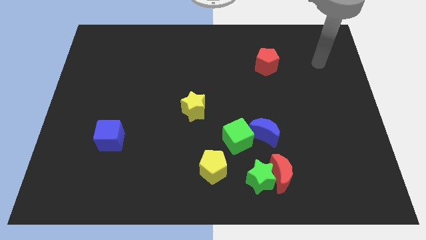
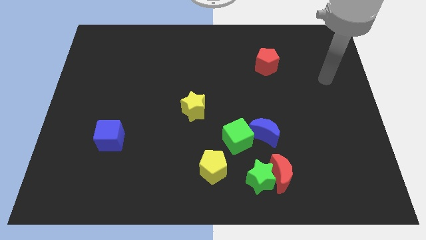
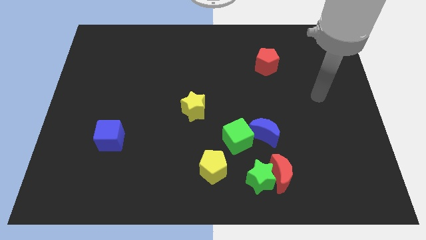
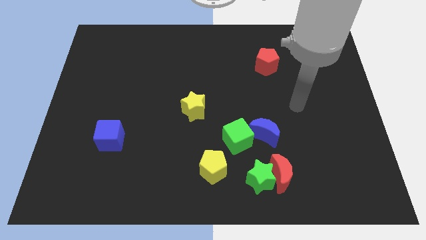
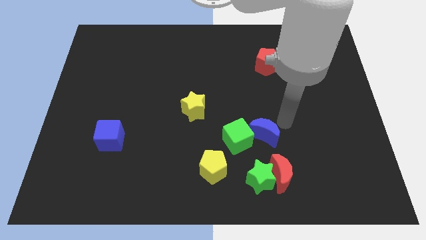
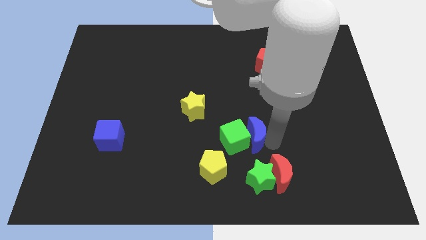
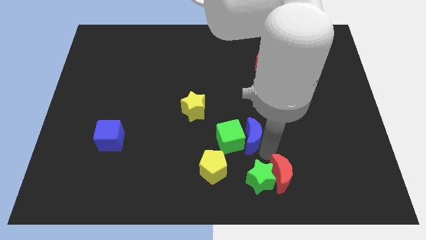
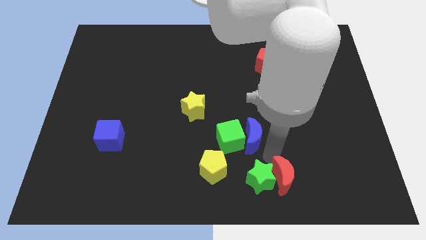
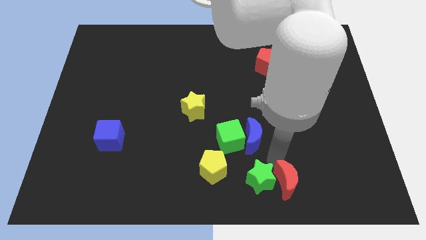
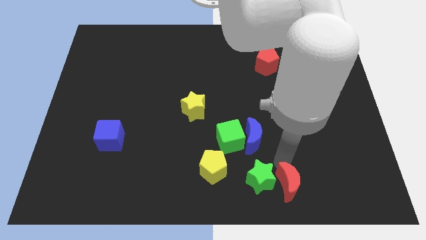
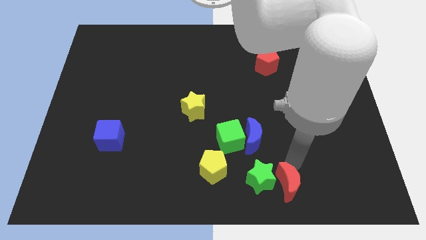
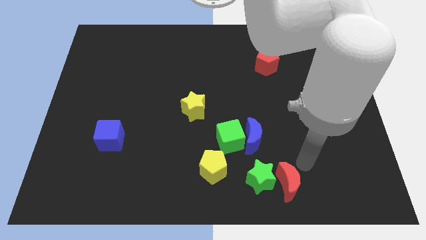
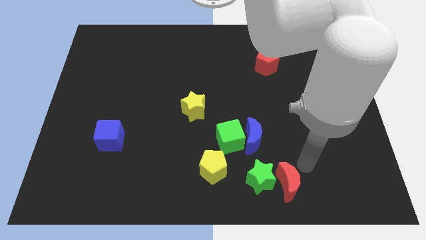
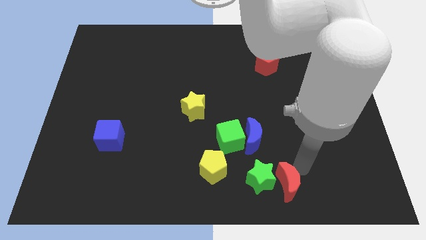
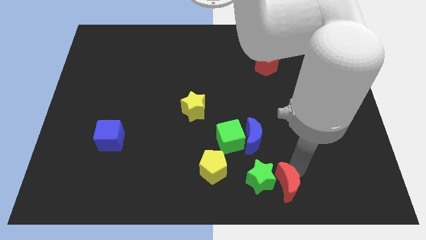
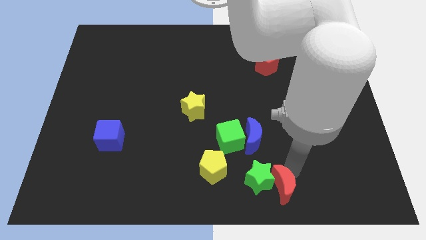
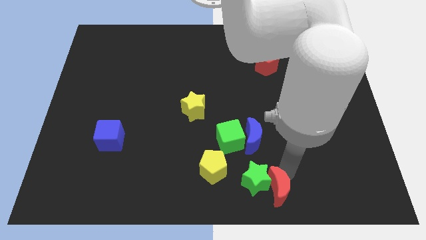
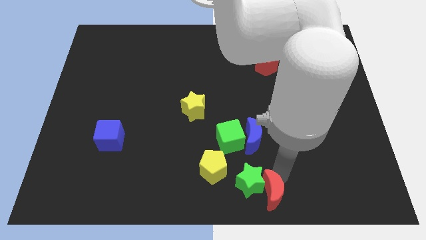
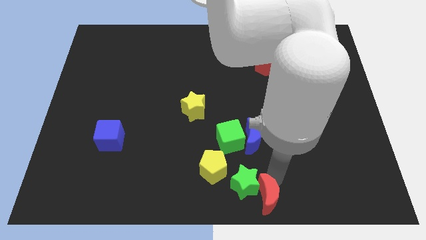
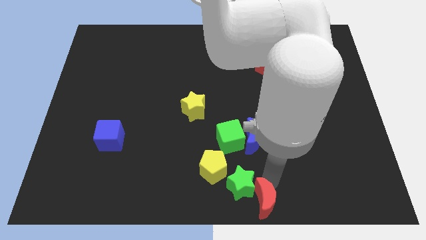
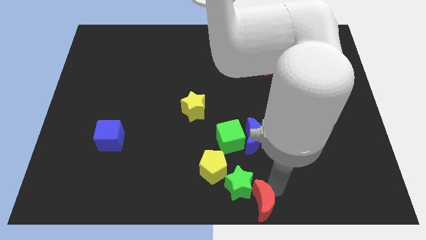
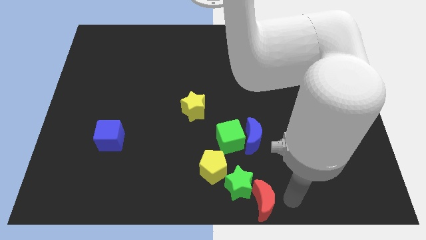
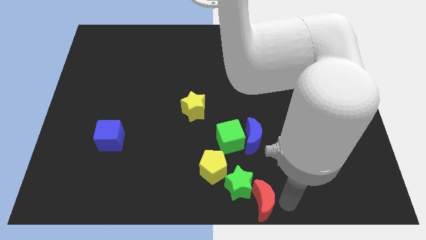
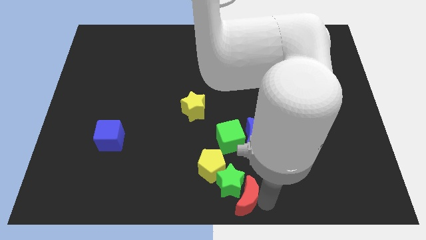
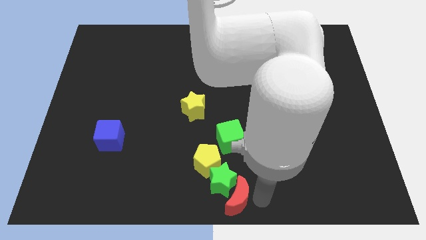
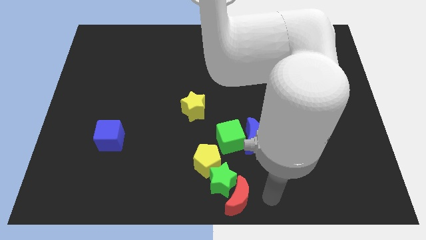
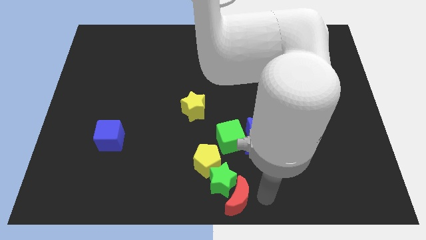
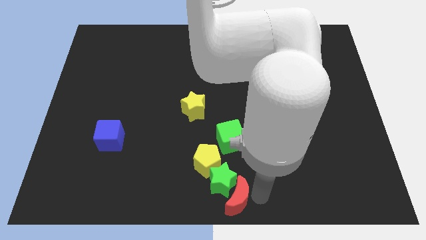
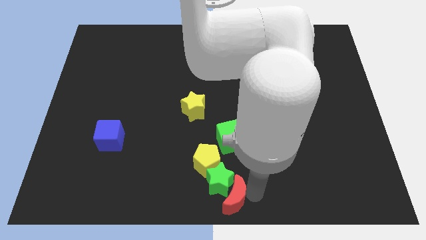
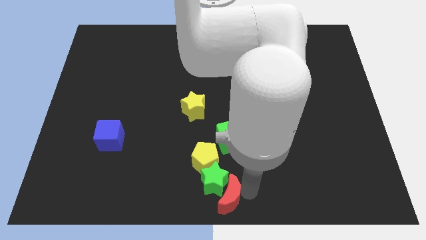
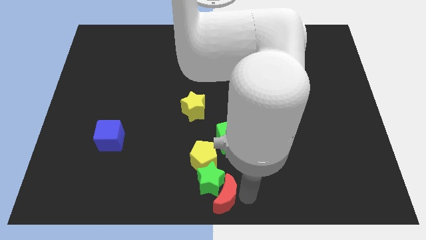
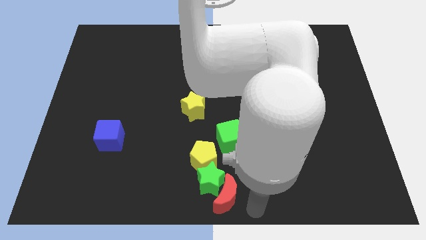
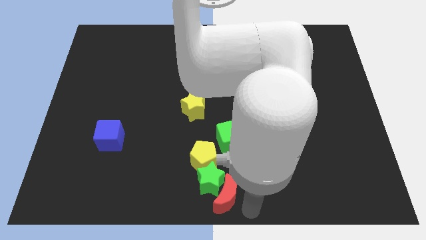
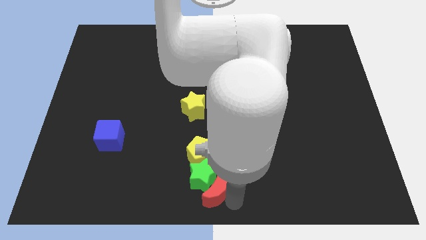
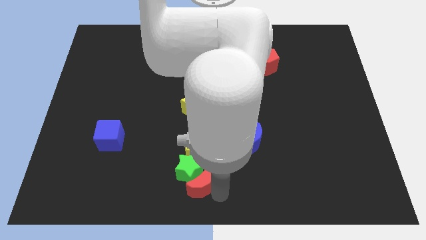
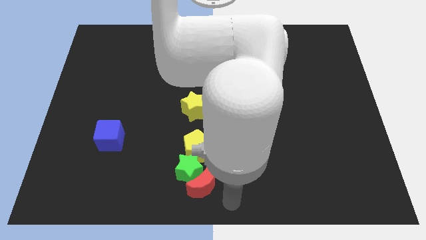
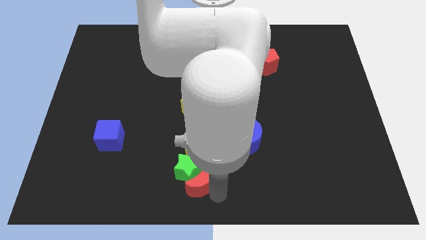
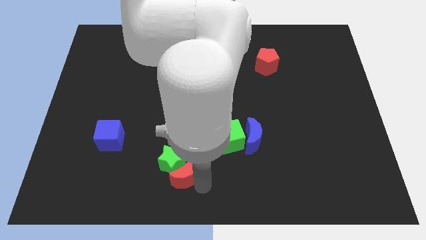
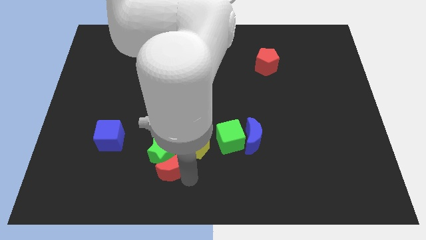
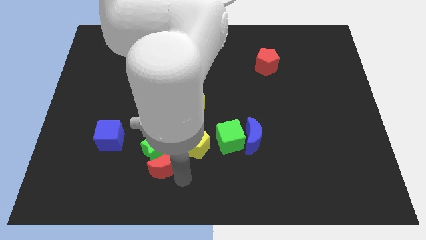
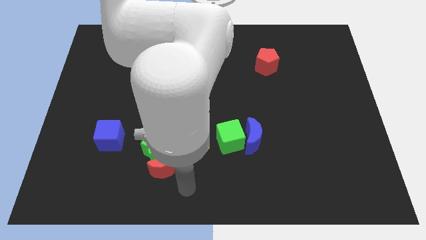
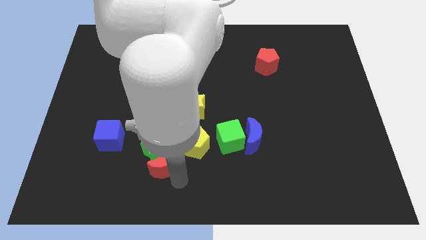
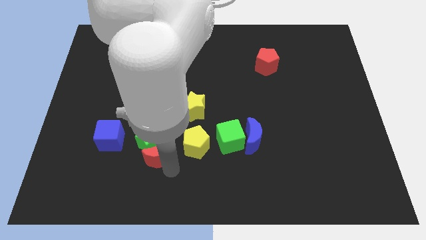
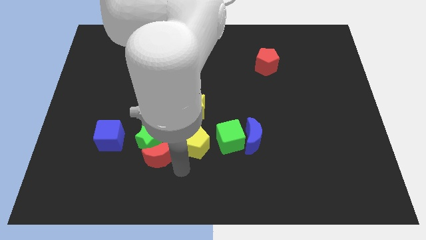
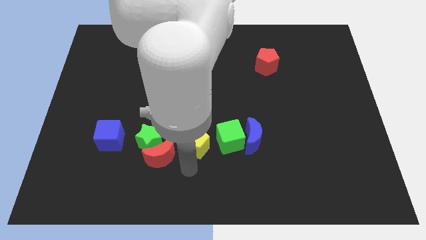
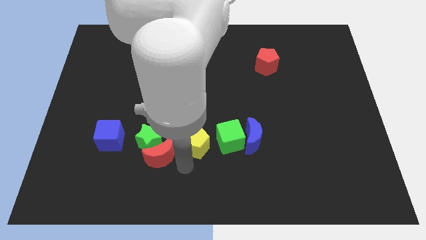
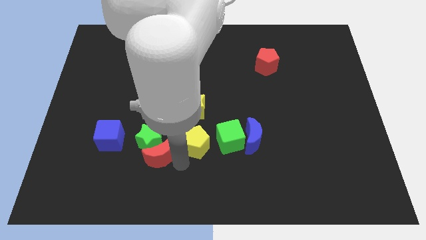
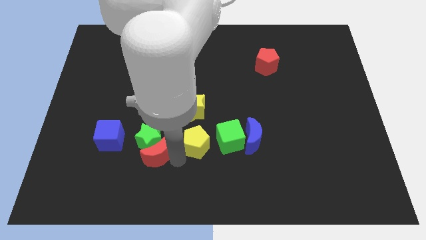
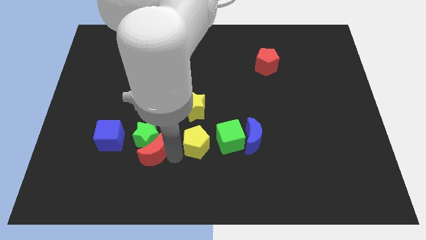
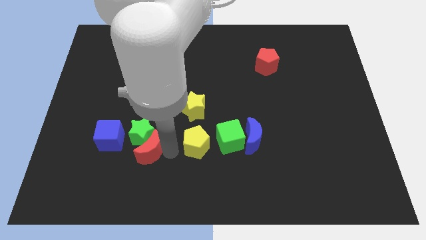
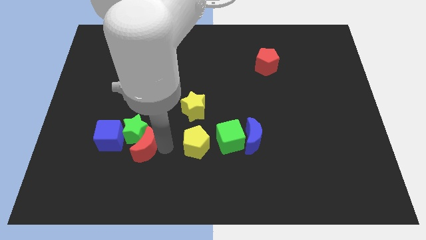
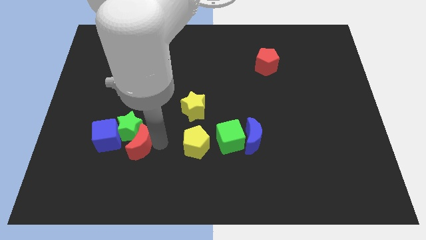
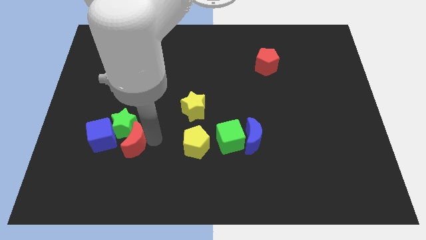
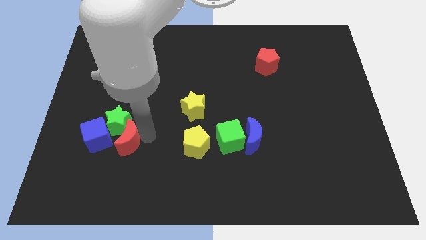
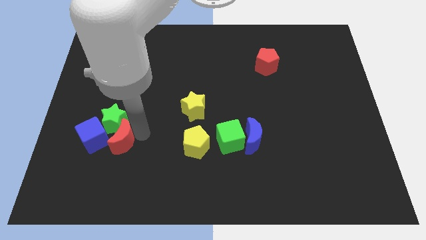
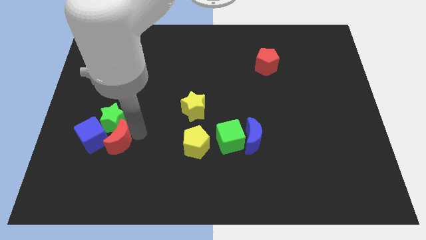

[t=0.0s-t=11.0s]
slide the red moon to the blue cube

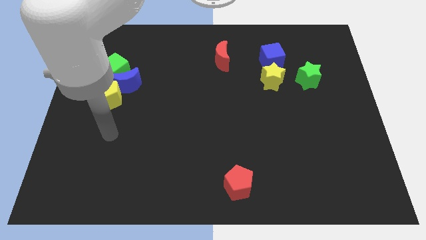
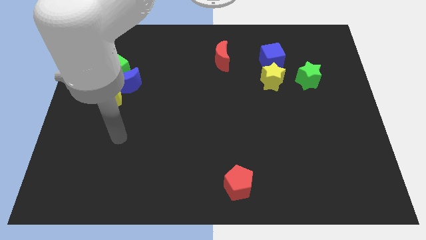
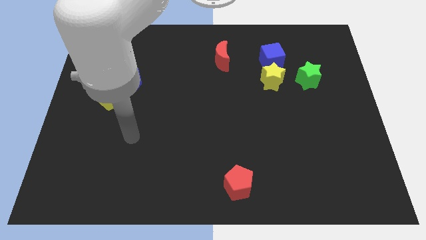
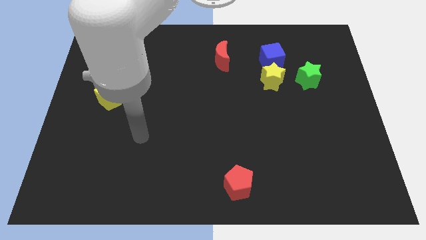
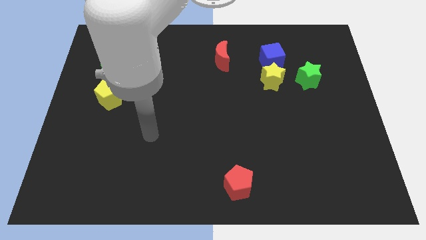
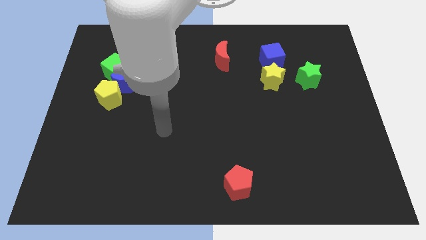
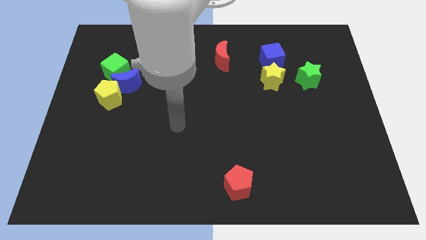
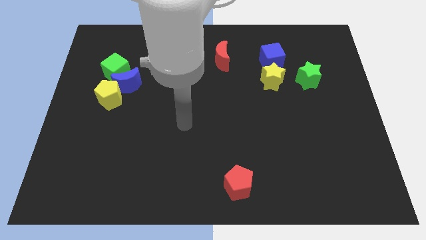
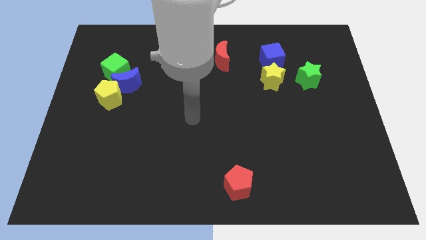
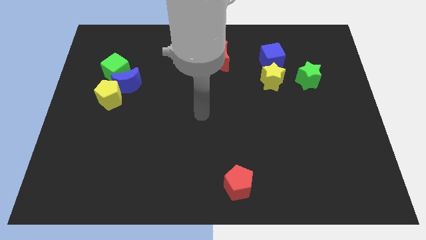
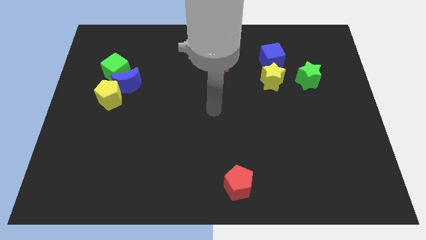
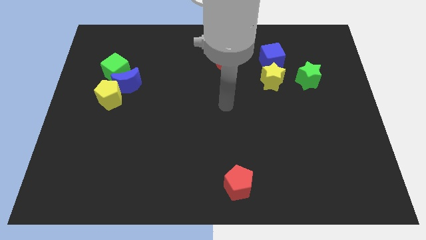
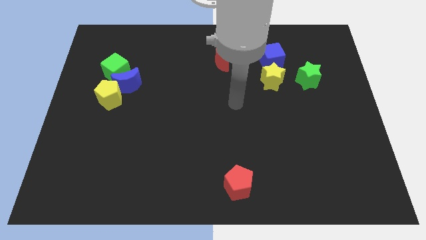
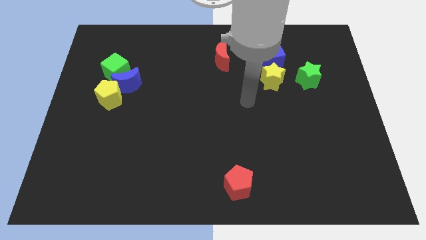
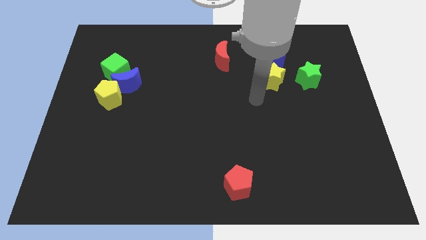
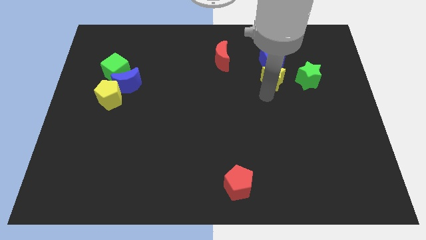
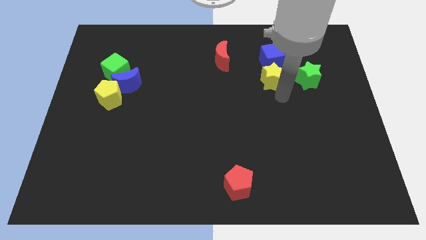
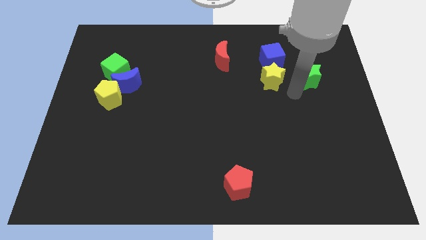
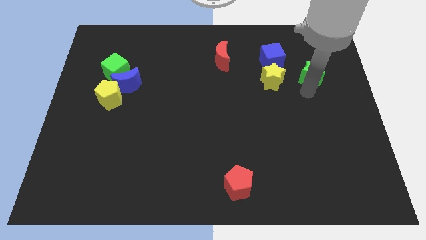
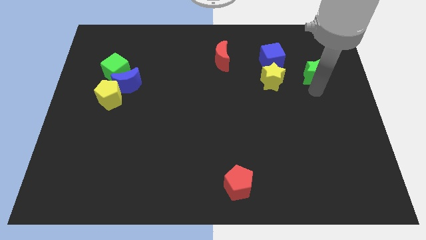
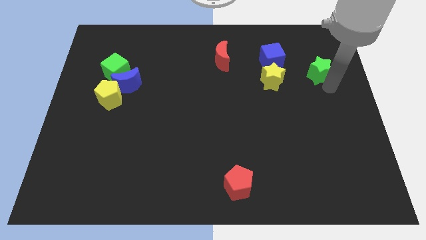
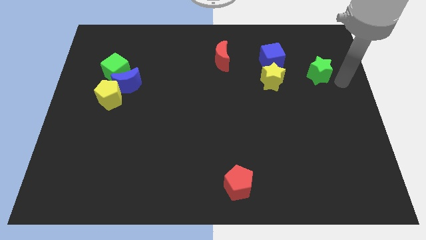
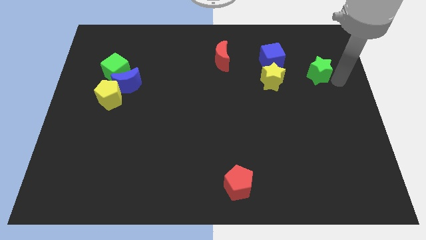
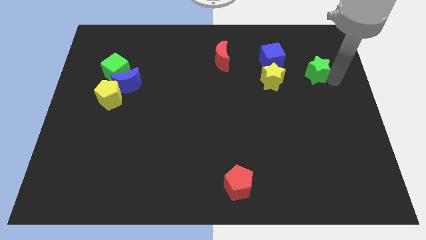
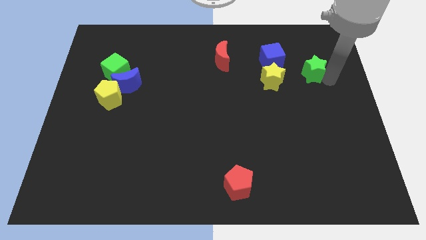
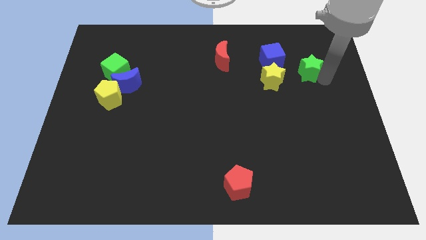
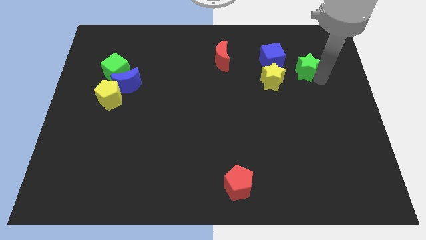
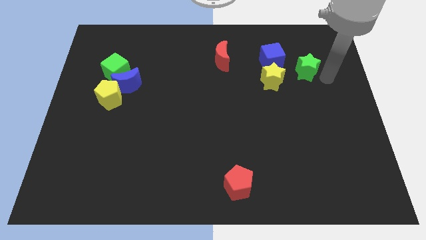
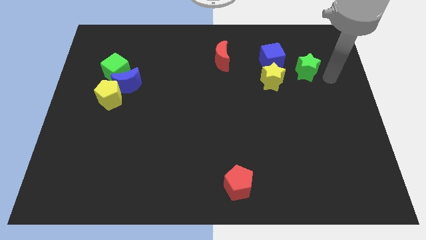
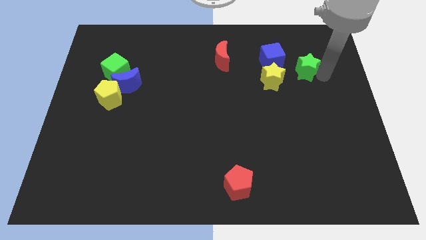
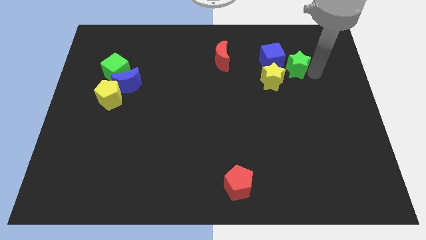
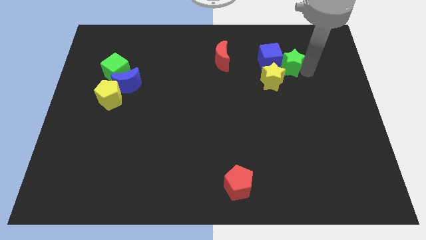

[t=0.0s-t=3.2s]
push the green star close to the blue cube
